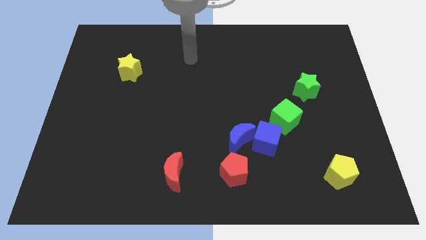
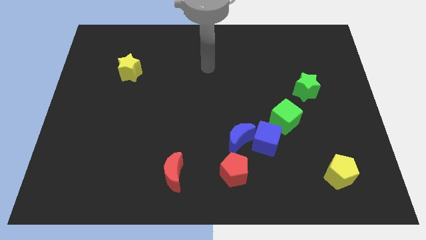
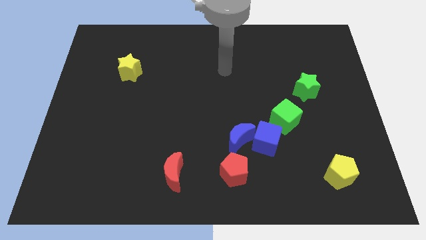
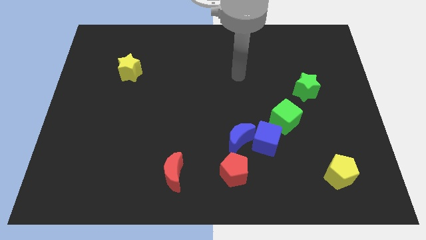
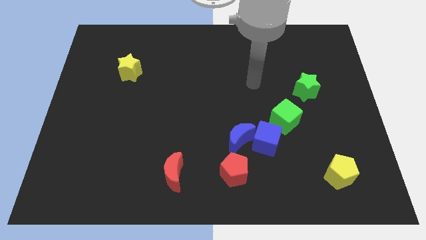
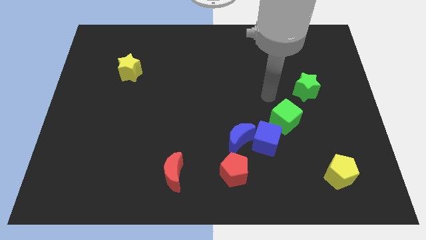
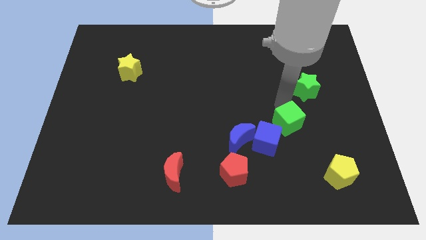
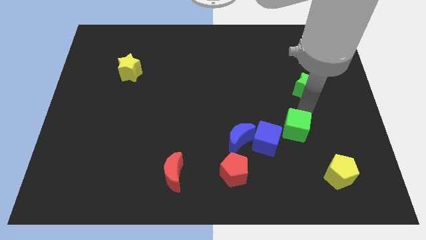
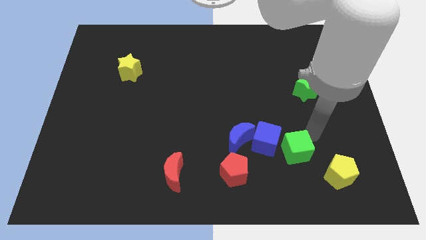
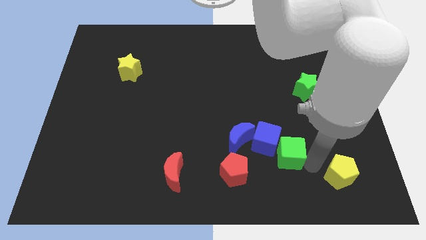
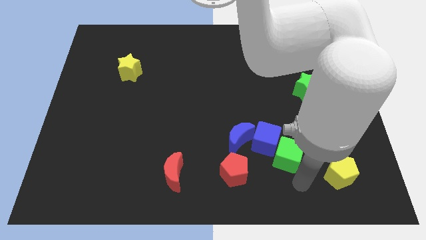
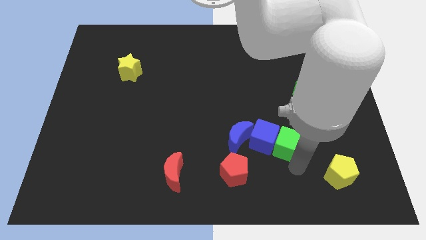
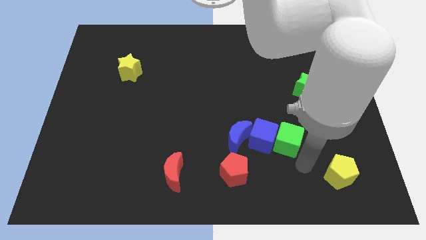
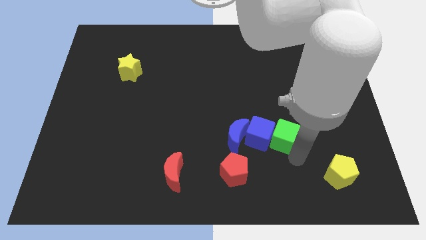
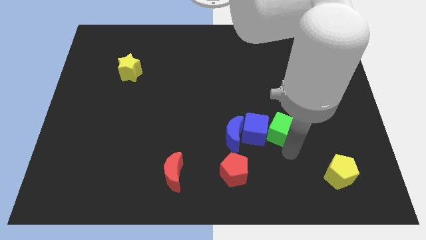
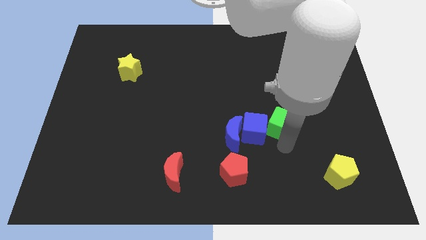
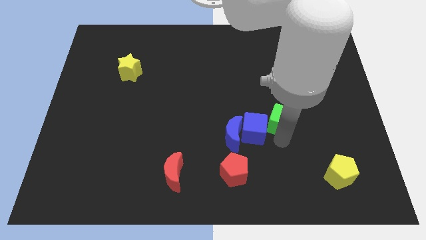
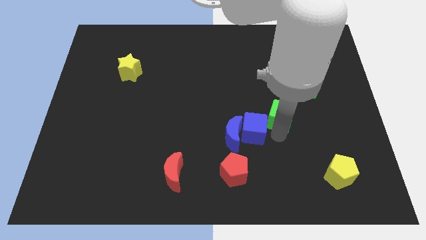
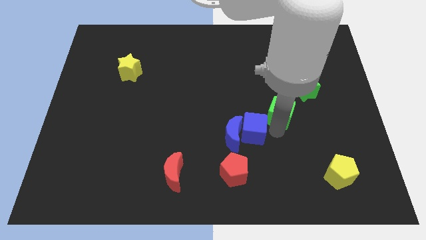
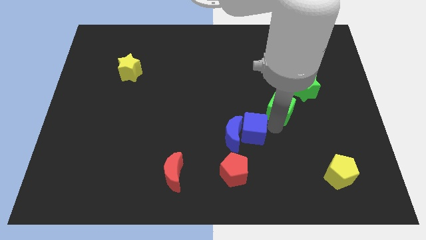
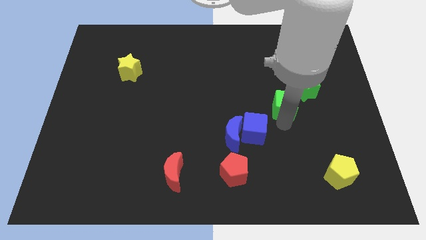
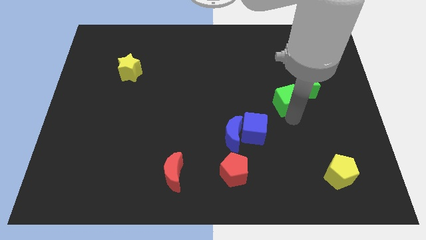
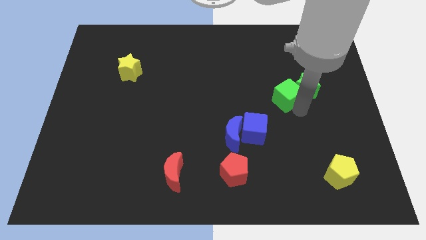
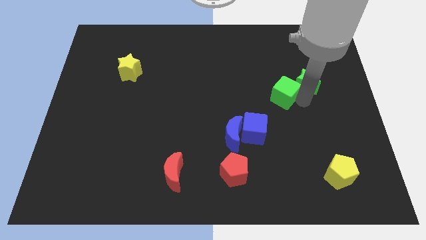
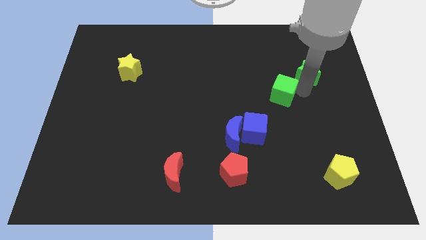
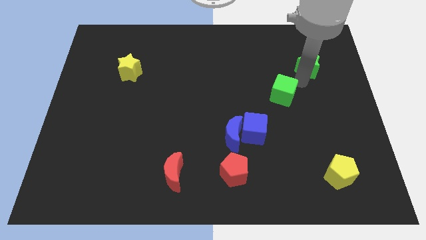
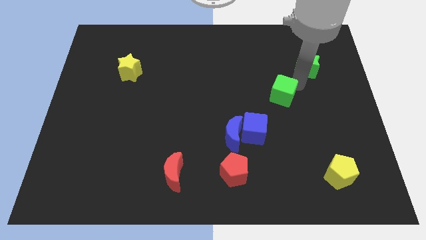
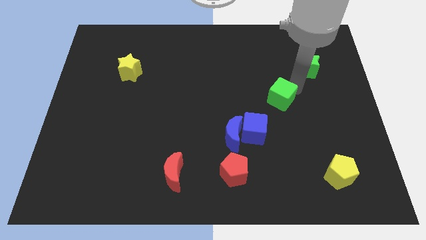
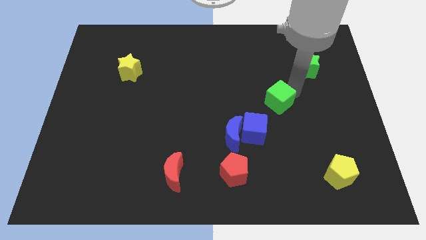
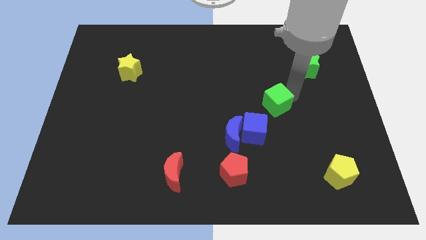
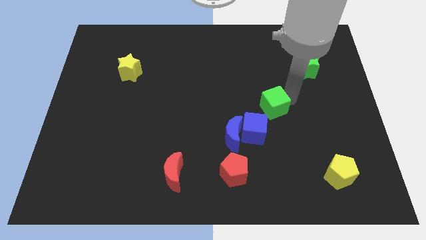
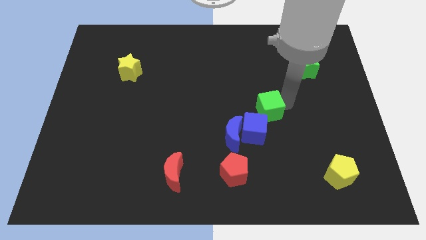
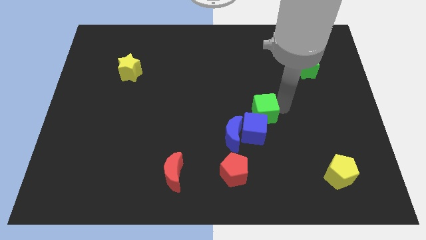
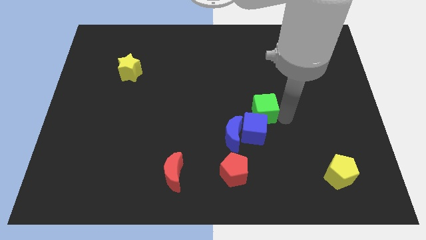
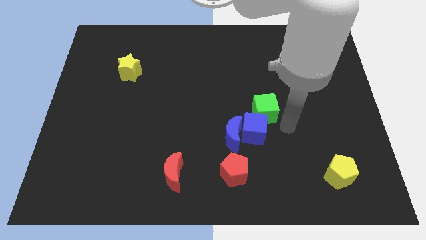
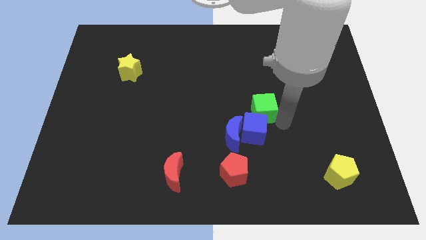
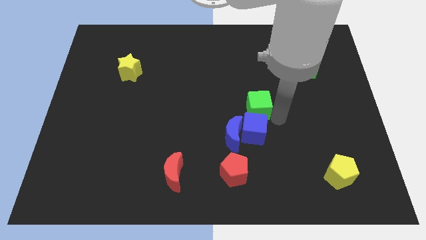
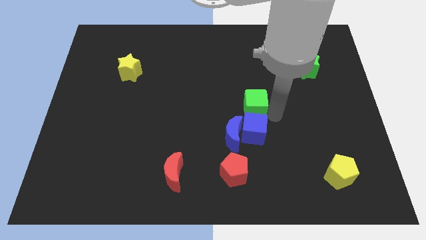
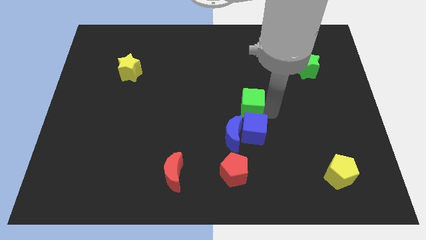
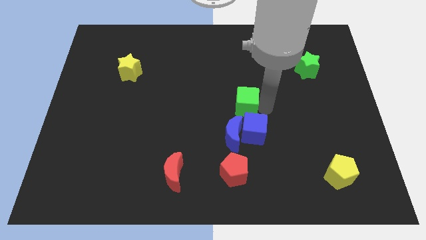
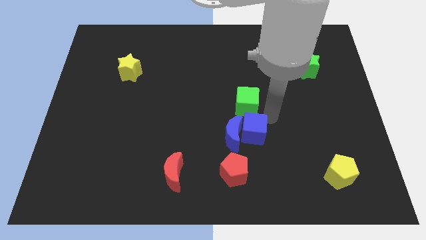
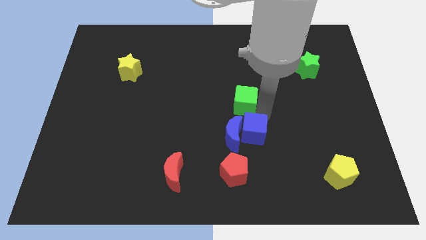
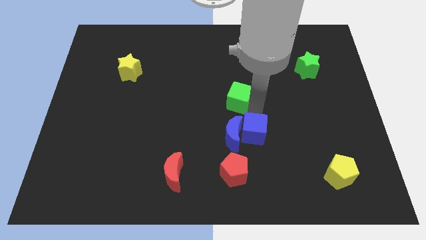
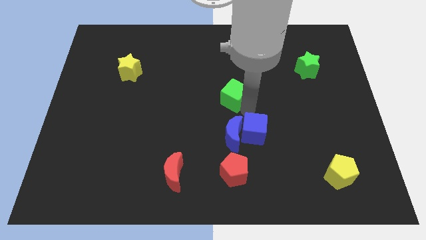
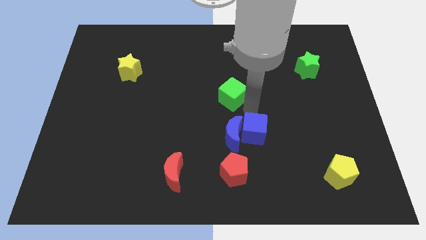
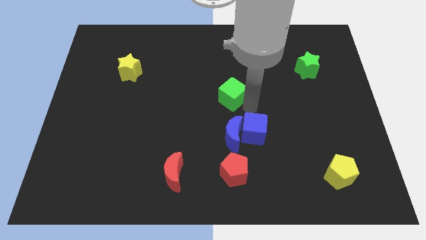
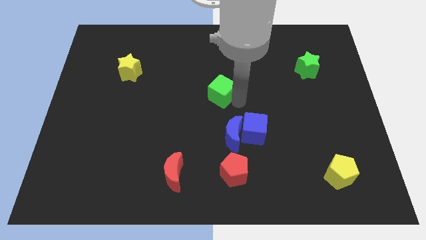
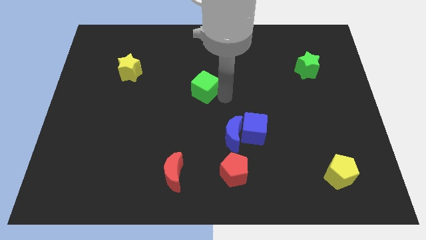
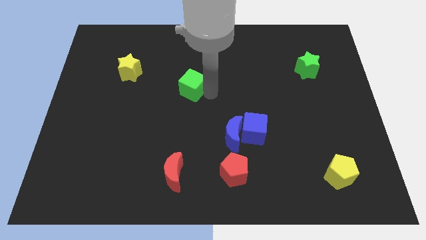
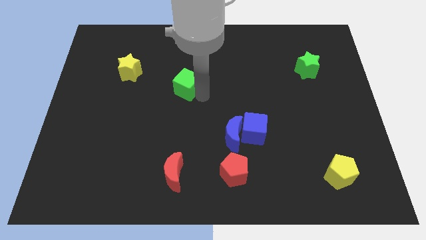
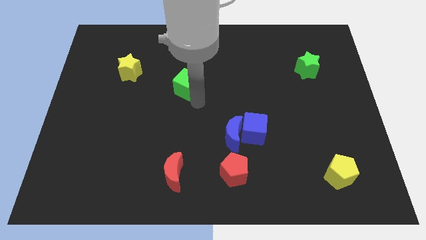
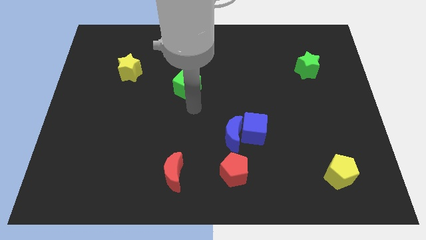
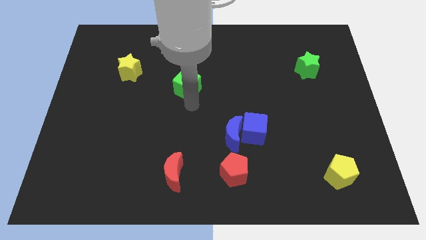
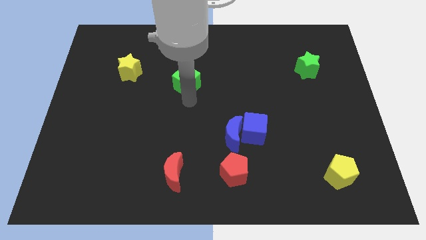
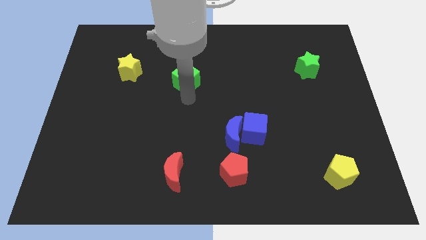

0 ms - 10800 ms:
slide the green cube right of the yellow star
